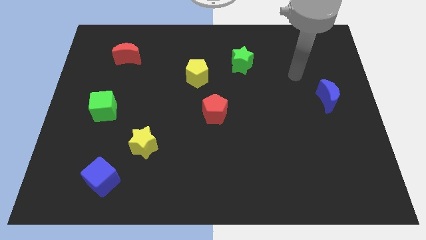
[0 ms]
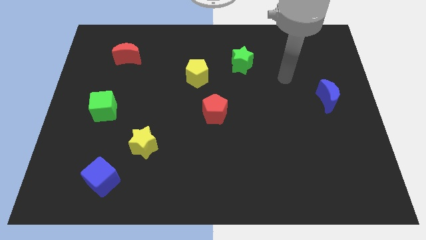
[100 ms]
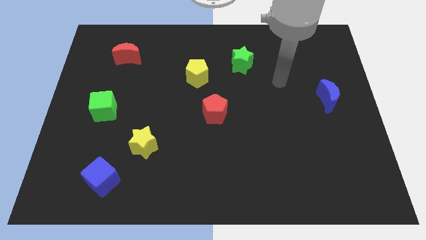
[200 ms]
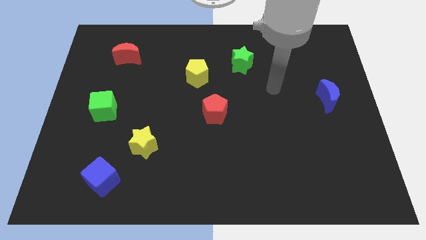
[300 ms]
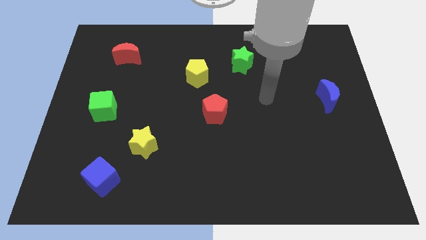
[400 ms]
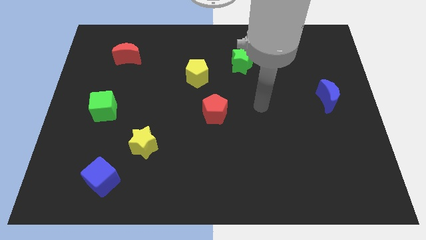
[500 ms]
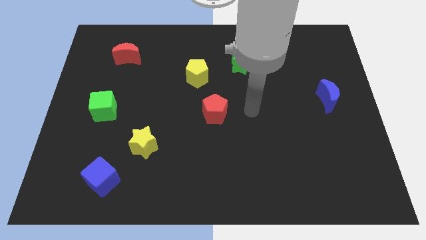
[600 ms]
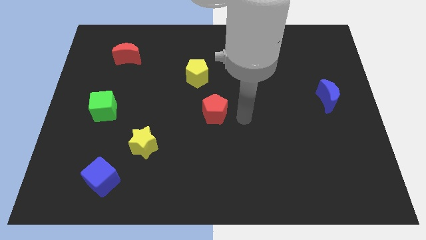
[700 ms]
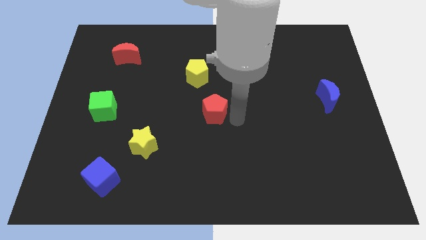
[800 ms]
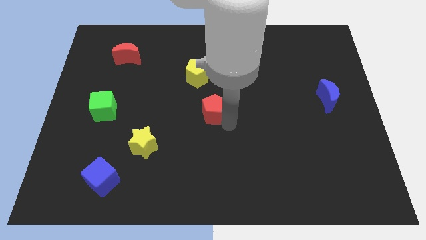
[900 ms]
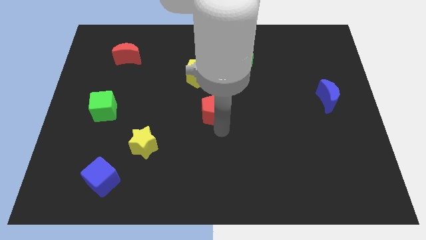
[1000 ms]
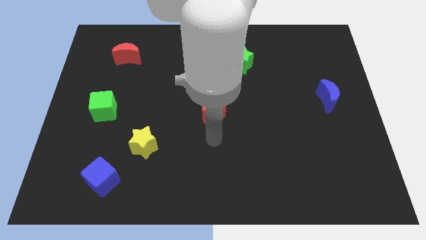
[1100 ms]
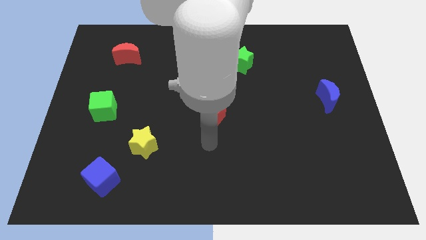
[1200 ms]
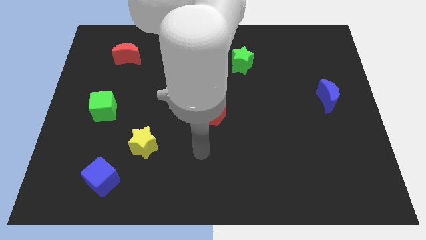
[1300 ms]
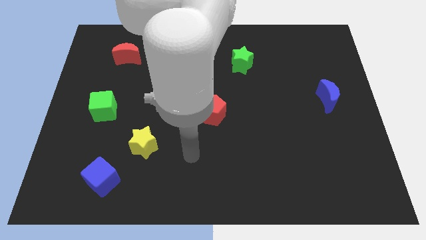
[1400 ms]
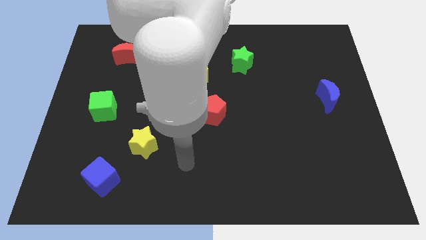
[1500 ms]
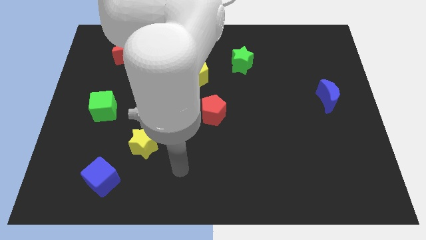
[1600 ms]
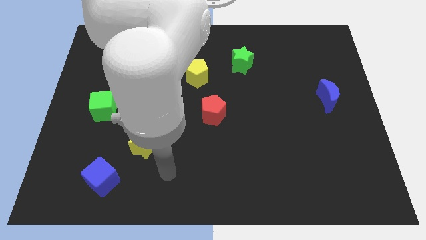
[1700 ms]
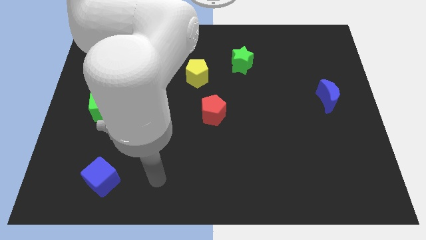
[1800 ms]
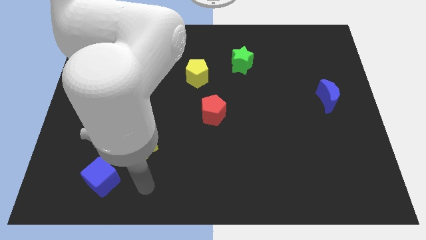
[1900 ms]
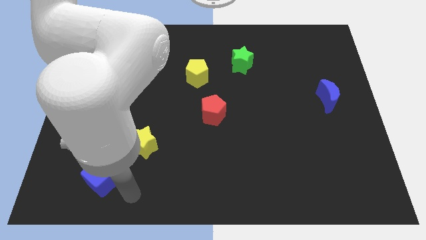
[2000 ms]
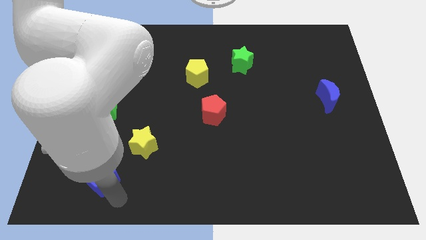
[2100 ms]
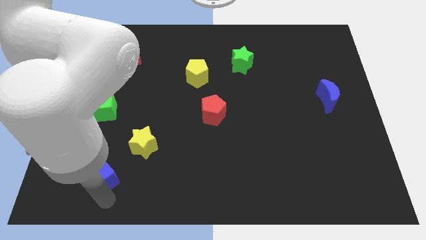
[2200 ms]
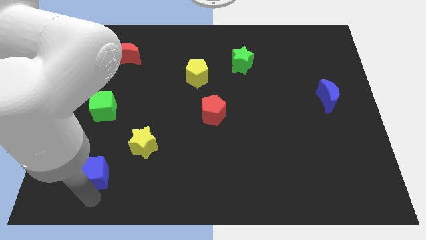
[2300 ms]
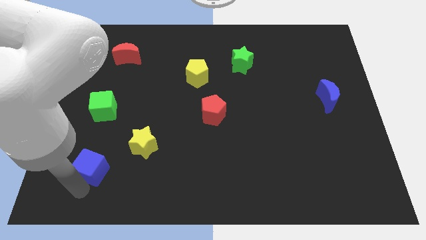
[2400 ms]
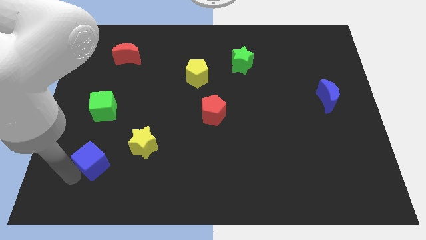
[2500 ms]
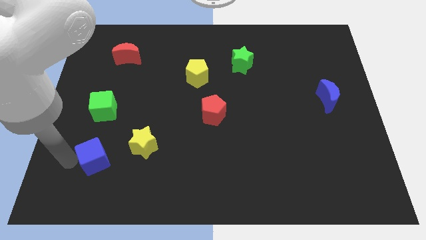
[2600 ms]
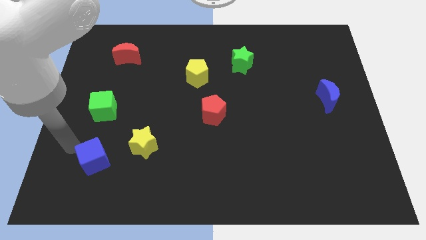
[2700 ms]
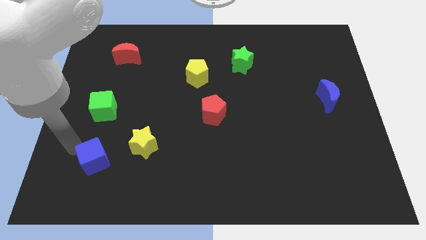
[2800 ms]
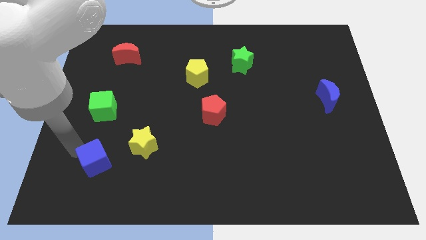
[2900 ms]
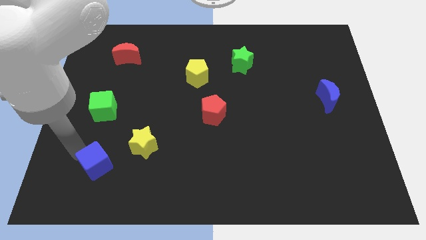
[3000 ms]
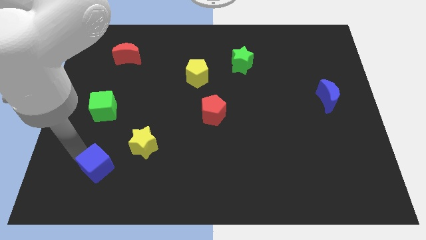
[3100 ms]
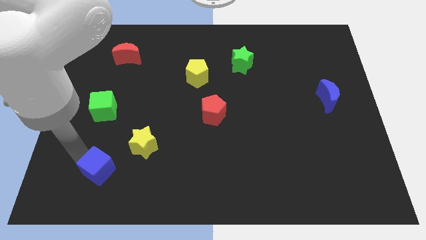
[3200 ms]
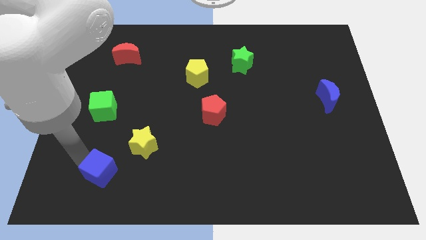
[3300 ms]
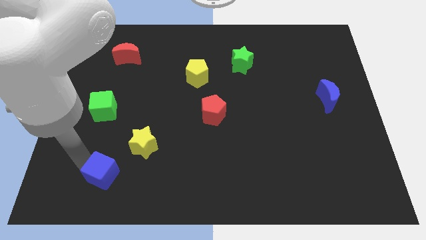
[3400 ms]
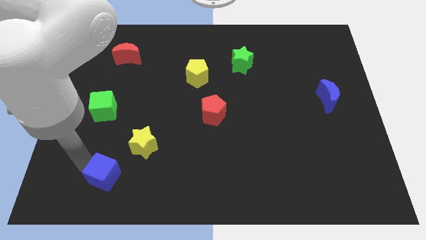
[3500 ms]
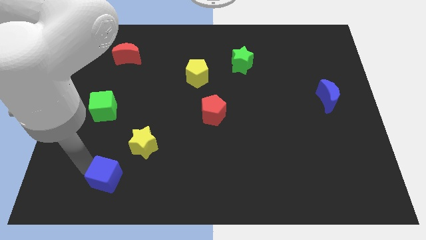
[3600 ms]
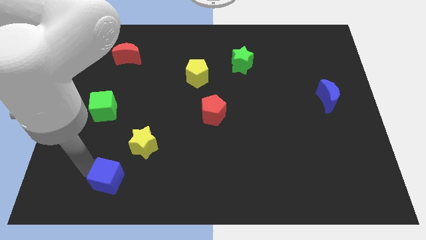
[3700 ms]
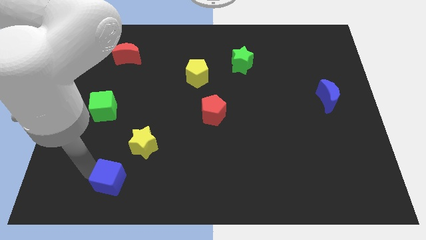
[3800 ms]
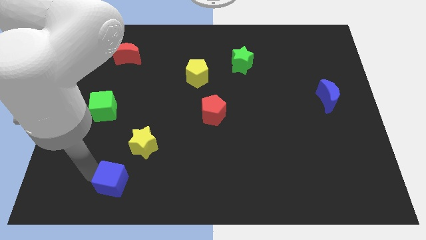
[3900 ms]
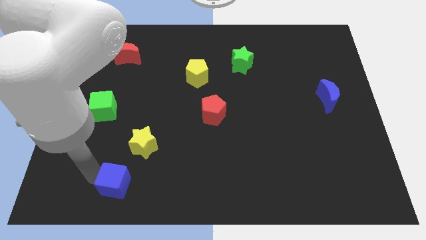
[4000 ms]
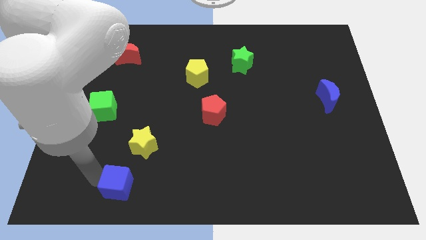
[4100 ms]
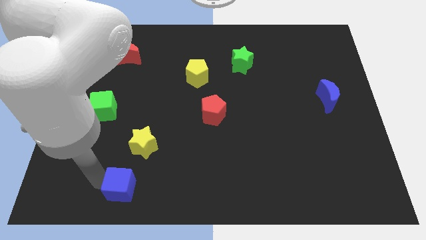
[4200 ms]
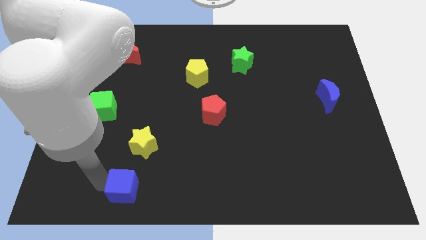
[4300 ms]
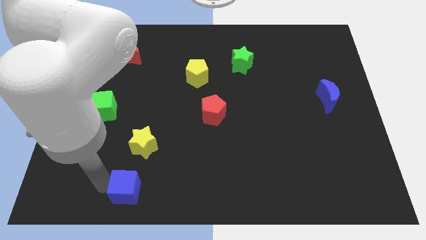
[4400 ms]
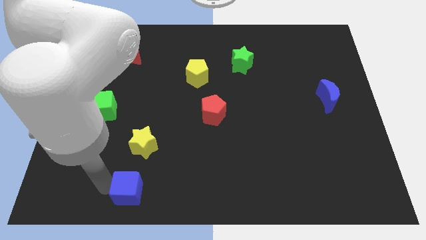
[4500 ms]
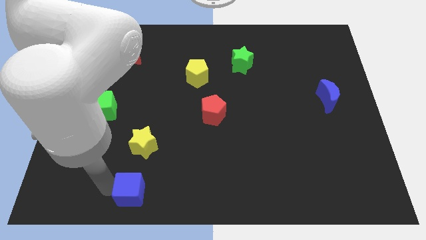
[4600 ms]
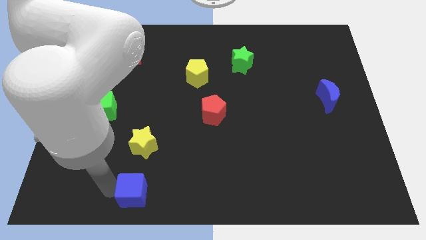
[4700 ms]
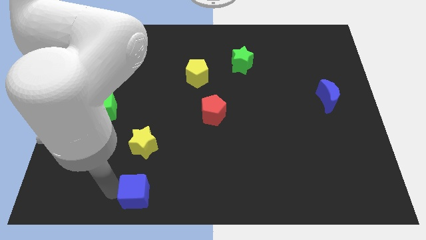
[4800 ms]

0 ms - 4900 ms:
slightly move the blue cube right

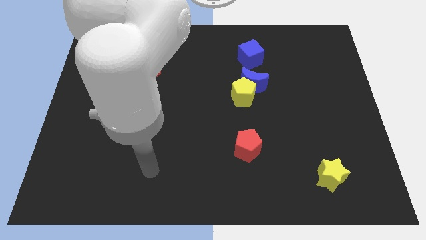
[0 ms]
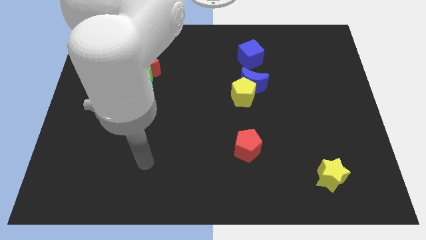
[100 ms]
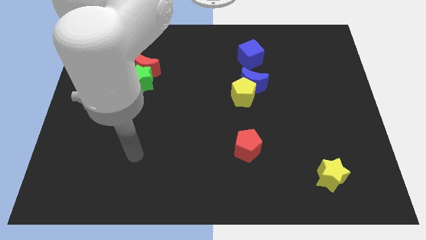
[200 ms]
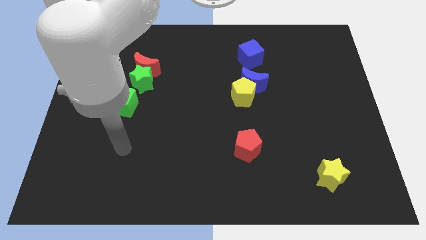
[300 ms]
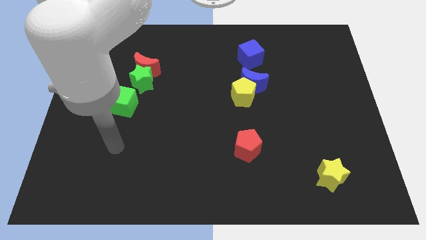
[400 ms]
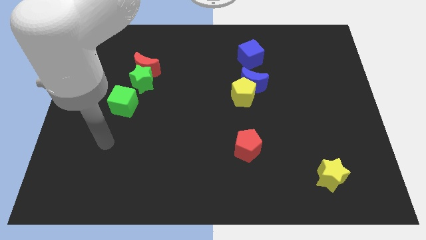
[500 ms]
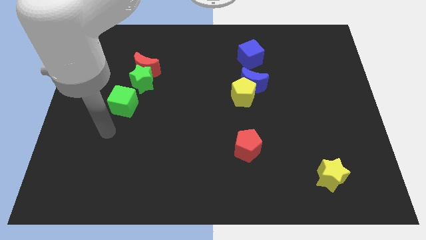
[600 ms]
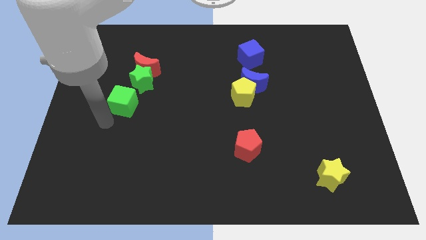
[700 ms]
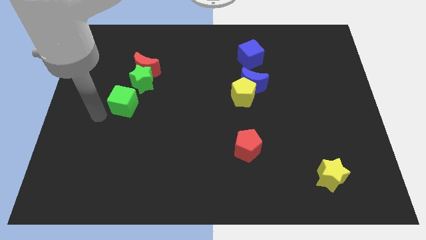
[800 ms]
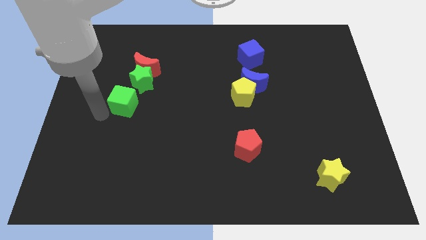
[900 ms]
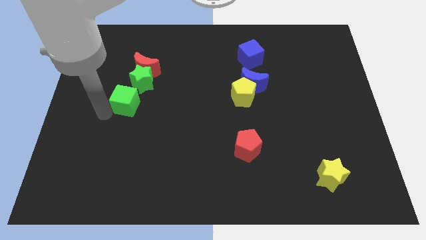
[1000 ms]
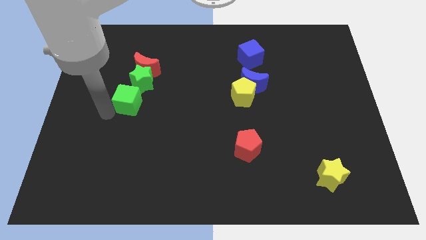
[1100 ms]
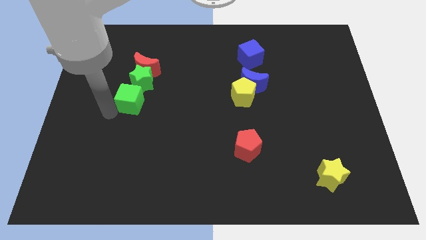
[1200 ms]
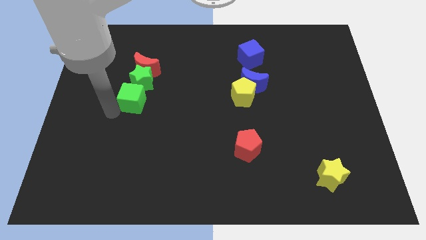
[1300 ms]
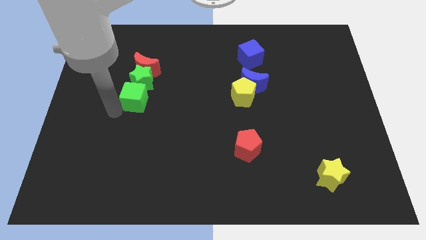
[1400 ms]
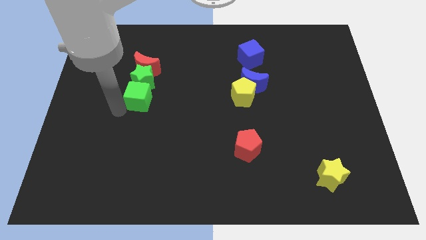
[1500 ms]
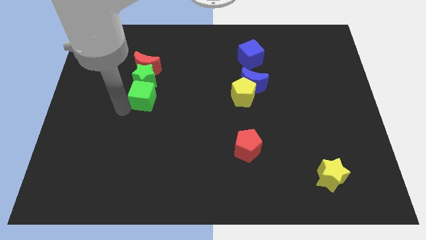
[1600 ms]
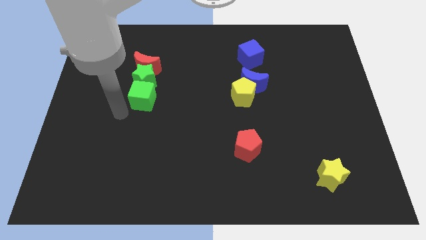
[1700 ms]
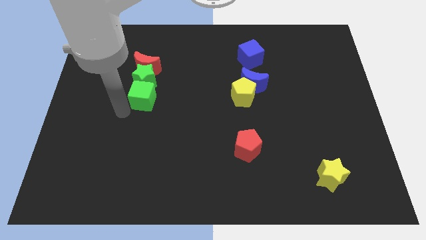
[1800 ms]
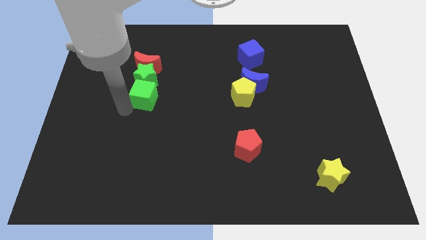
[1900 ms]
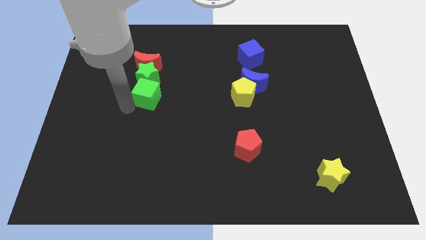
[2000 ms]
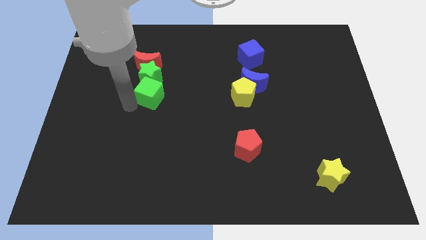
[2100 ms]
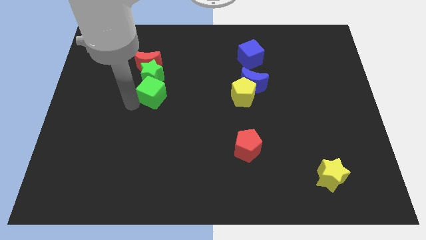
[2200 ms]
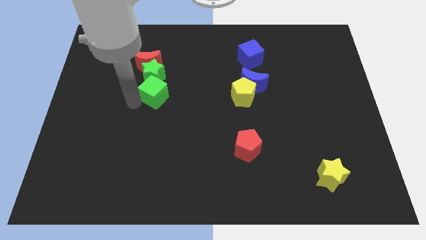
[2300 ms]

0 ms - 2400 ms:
push the green cube a little diagonally upwards and right

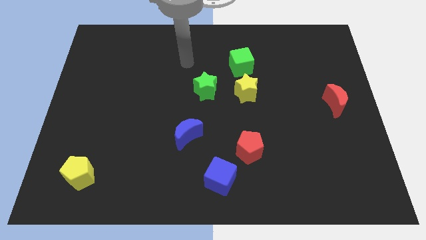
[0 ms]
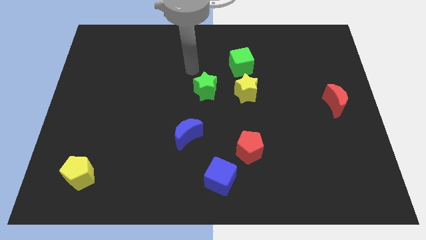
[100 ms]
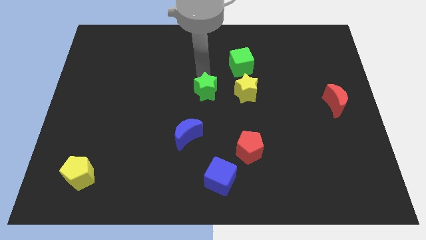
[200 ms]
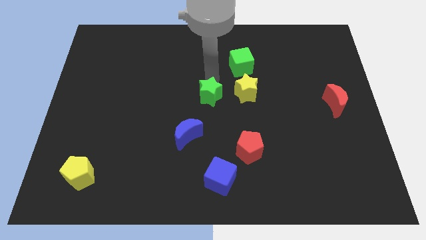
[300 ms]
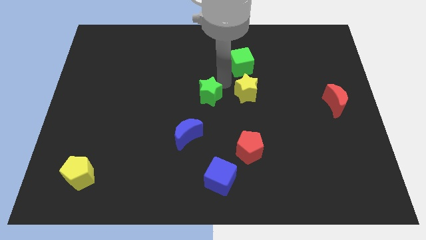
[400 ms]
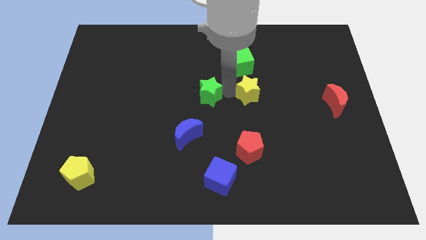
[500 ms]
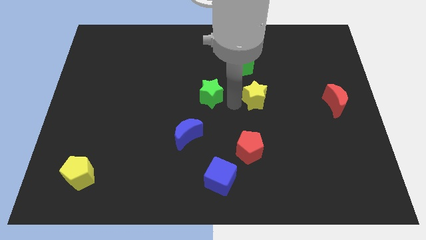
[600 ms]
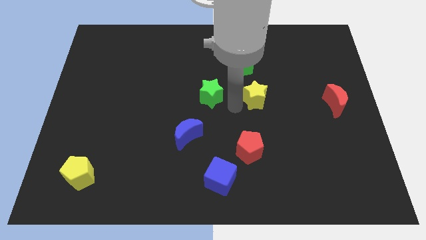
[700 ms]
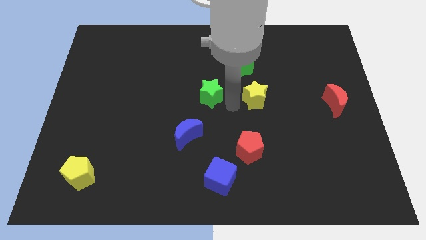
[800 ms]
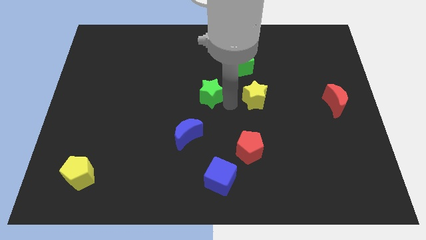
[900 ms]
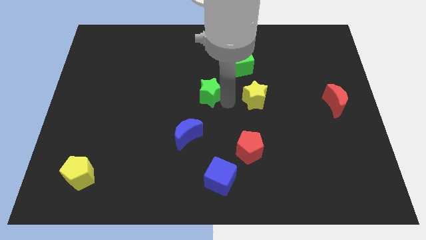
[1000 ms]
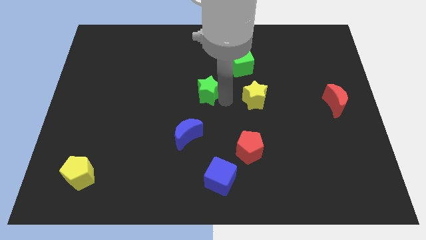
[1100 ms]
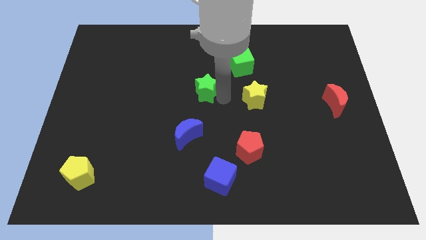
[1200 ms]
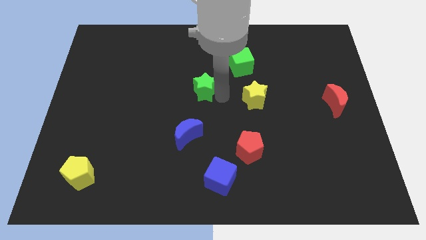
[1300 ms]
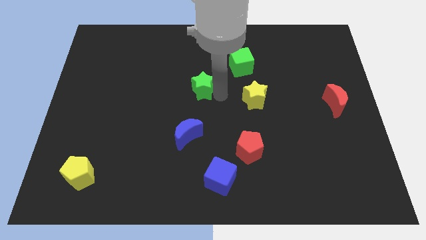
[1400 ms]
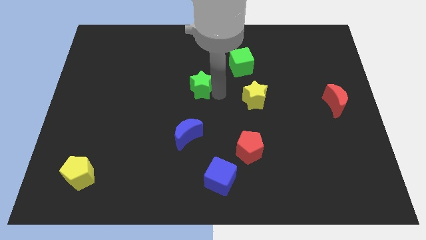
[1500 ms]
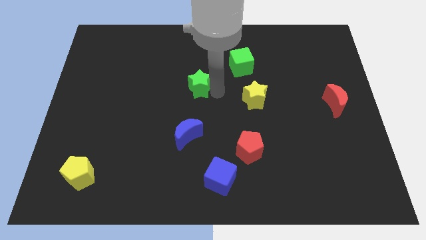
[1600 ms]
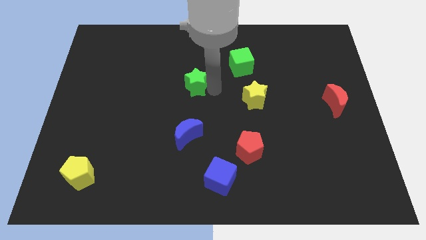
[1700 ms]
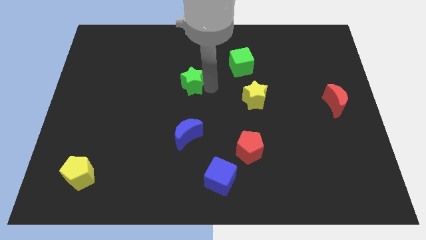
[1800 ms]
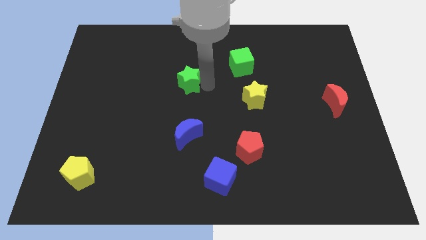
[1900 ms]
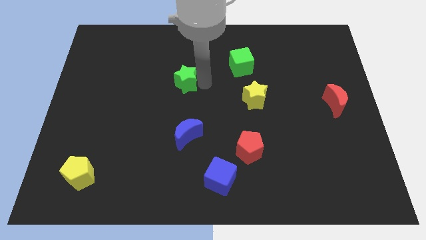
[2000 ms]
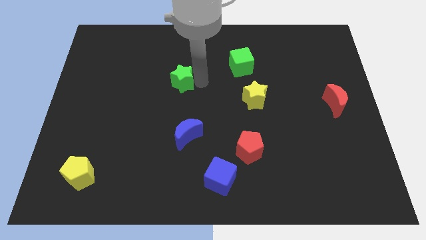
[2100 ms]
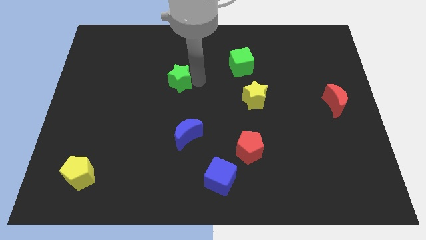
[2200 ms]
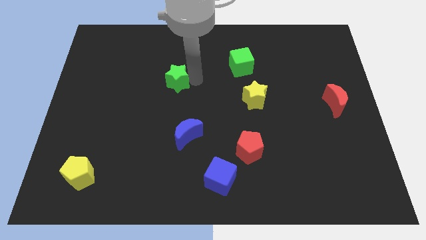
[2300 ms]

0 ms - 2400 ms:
push the green star left somewhat
